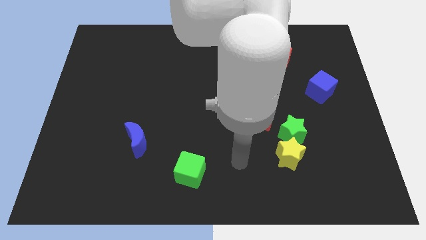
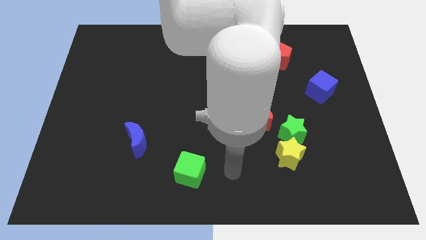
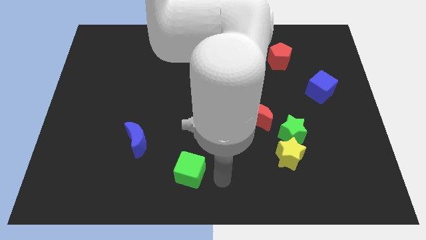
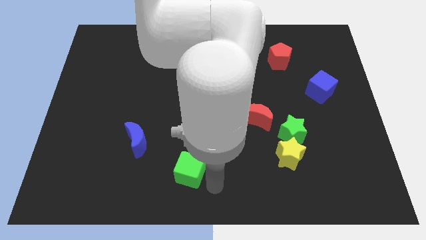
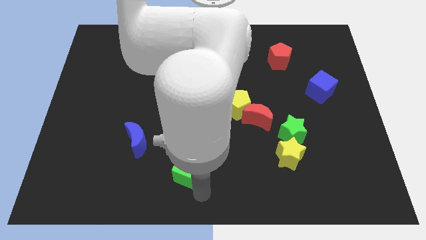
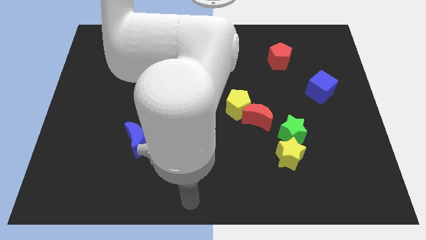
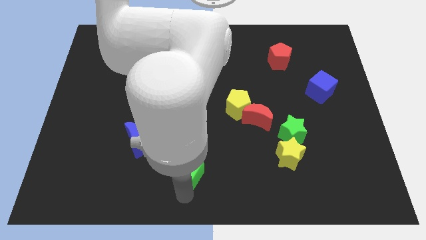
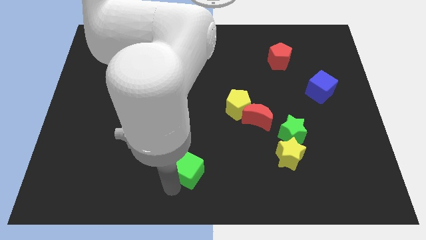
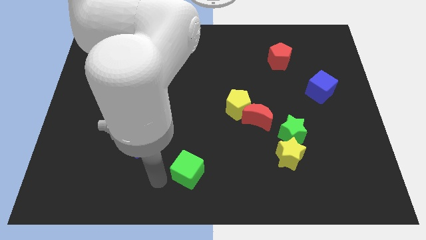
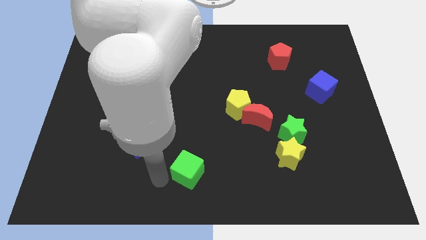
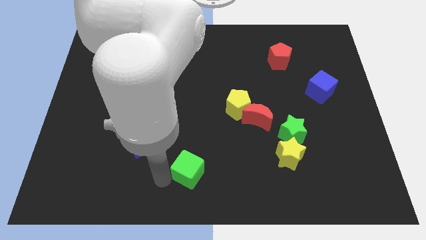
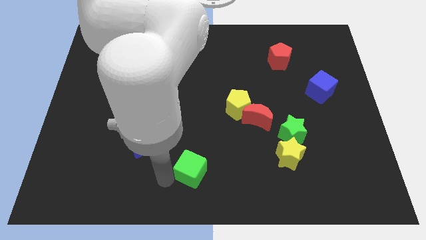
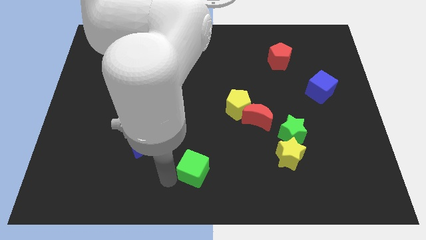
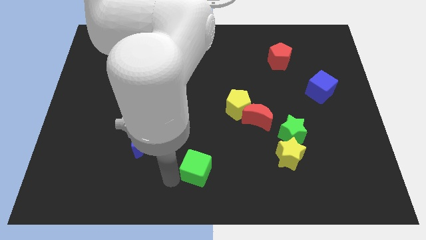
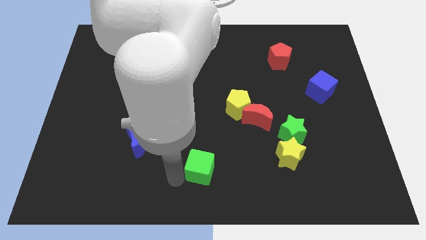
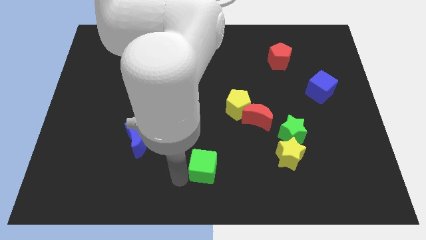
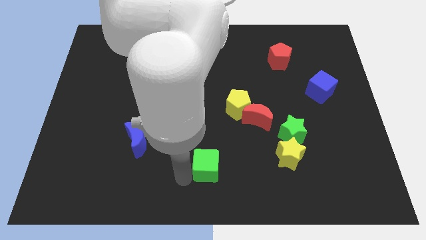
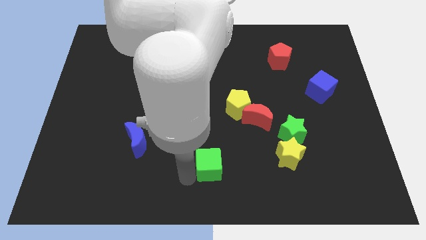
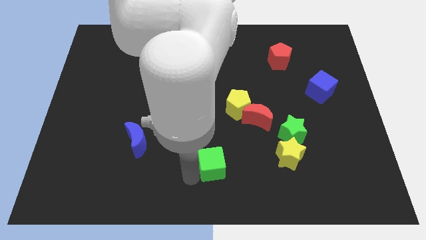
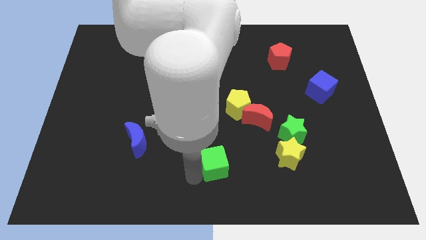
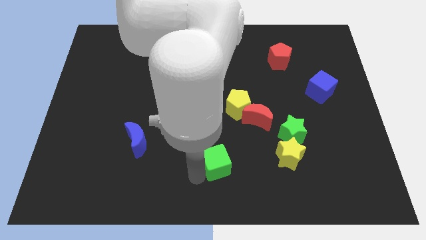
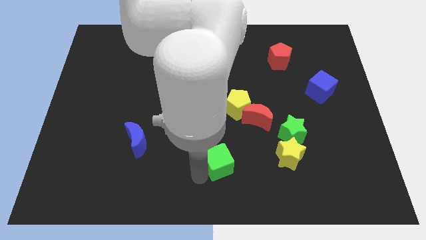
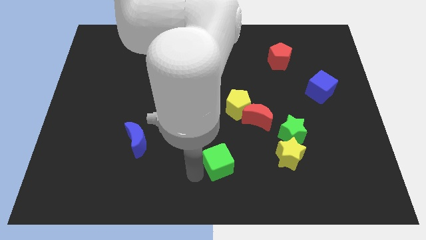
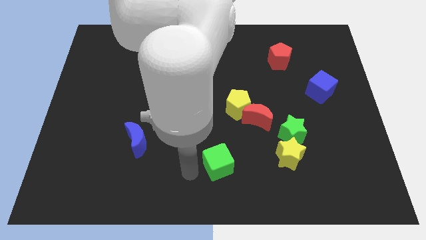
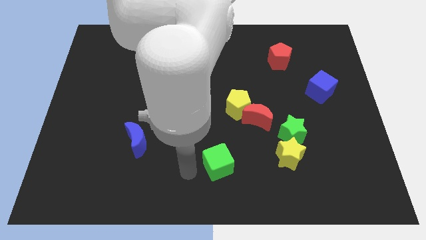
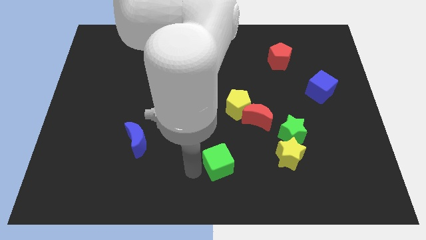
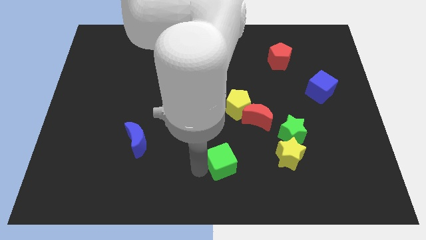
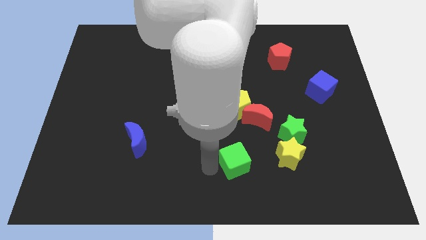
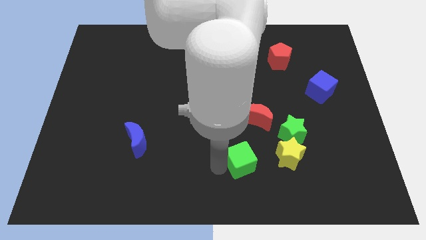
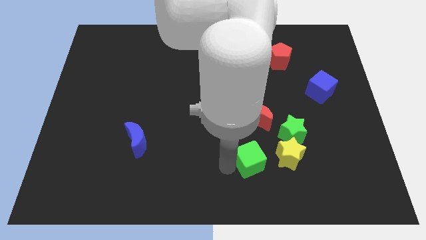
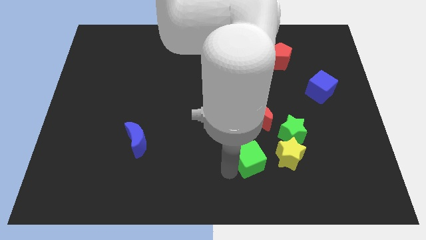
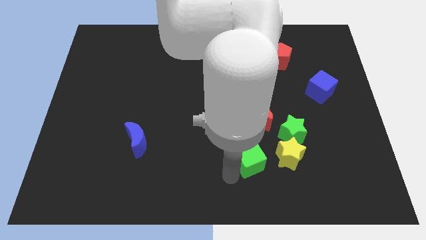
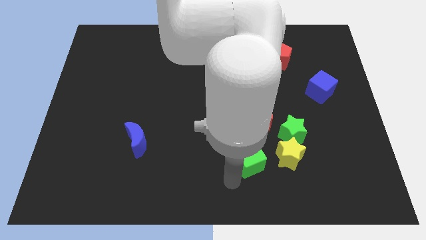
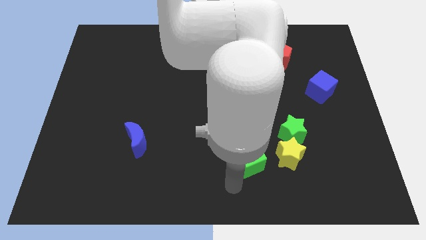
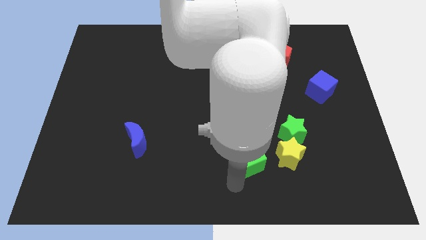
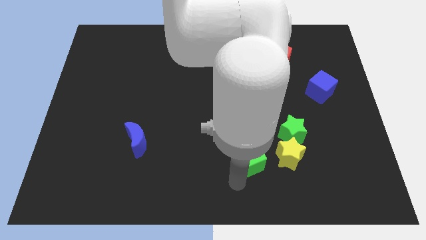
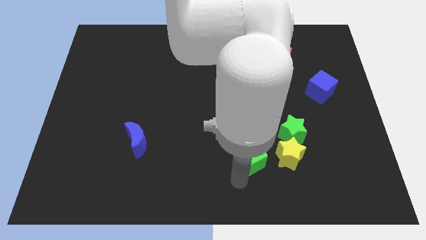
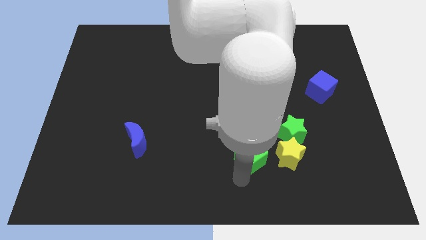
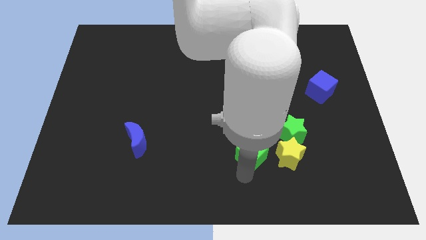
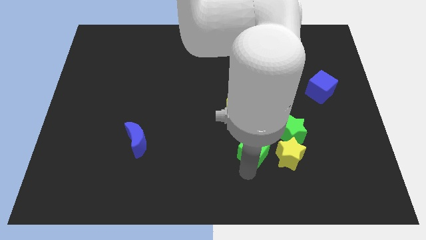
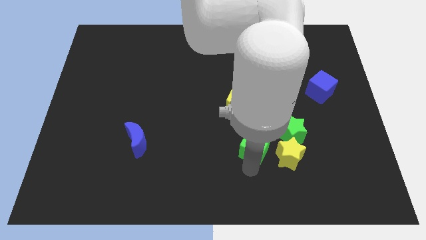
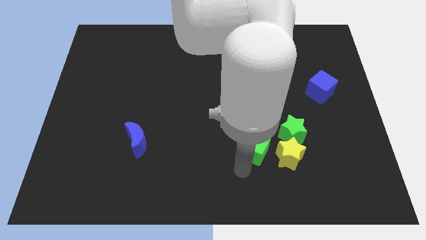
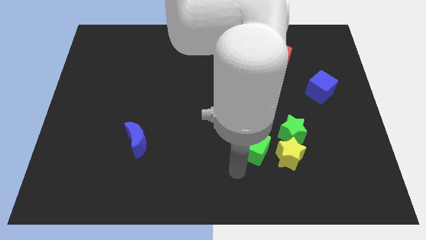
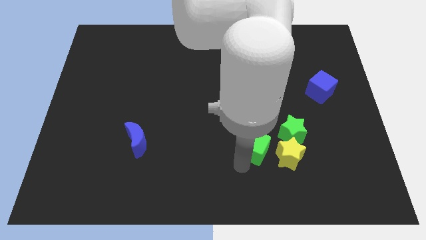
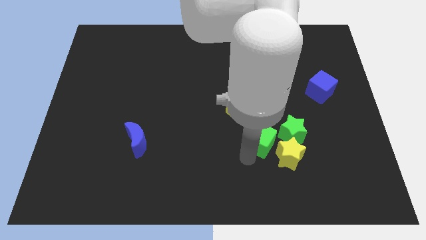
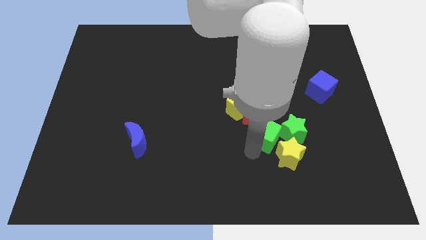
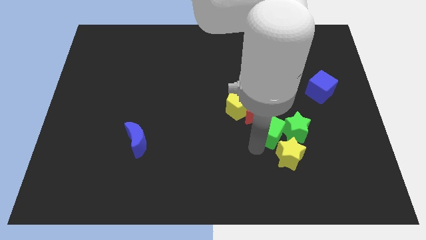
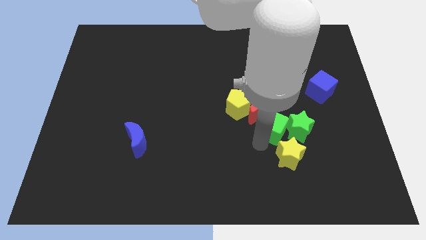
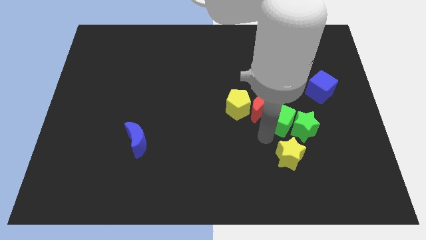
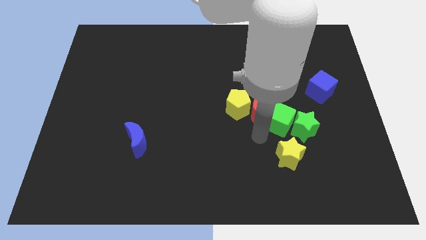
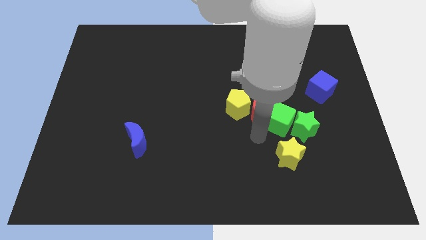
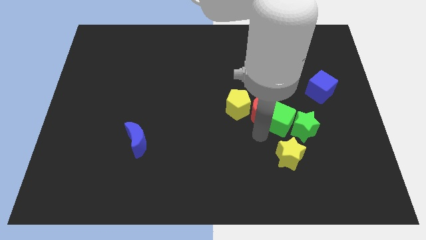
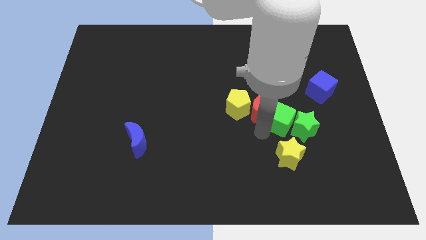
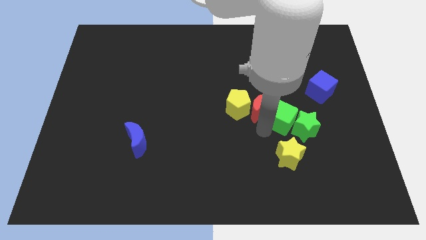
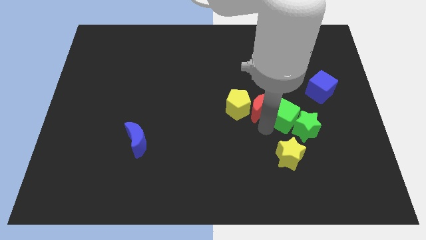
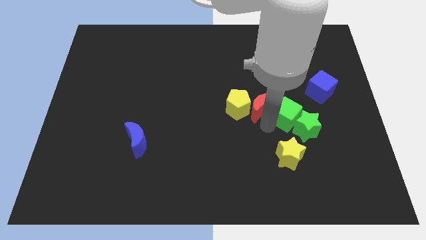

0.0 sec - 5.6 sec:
slide the green cube to the bottom left side of the blue cube

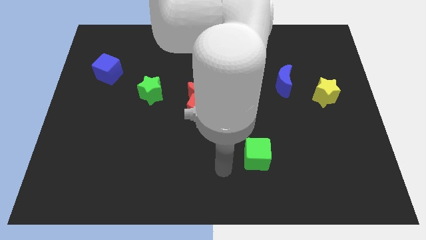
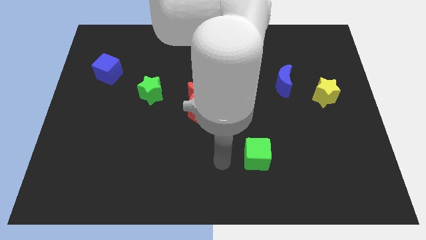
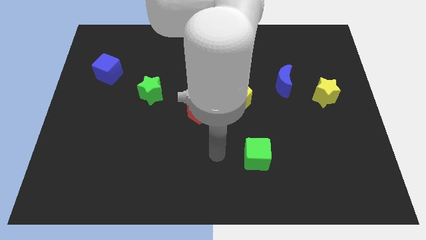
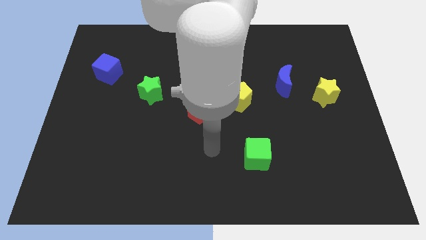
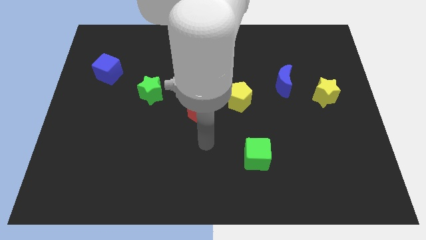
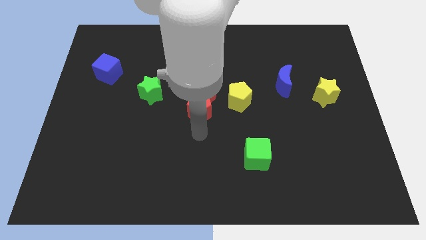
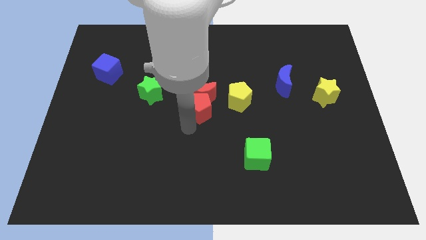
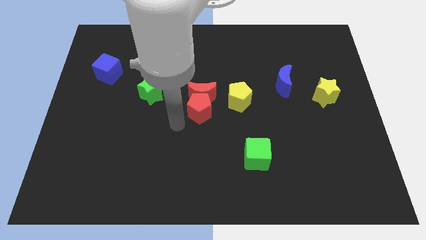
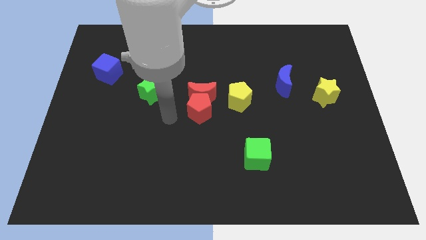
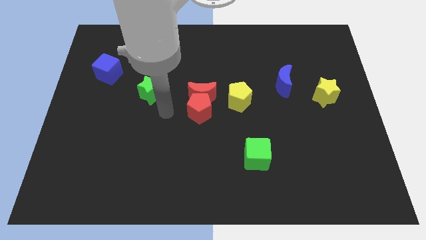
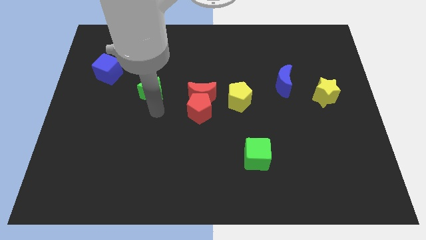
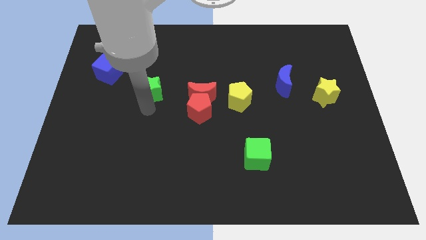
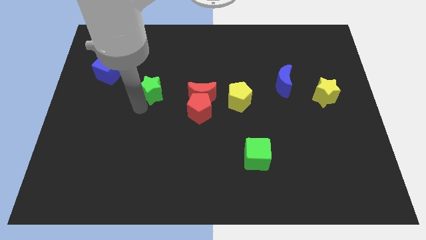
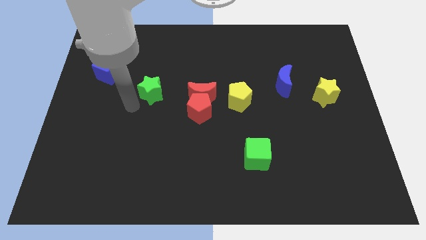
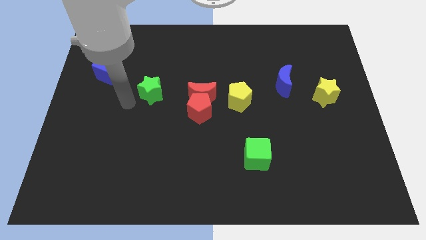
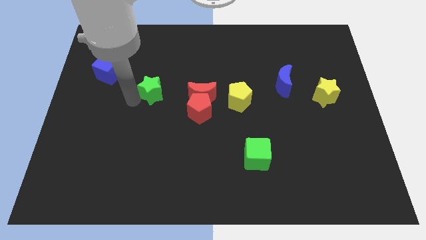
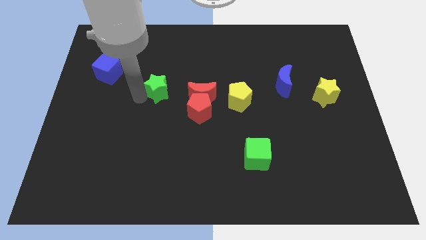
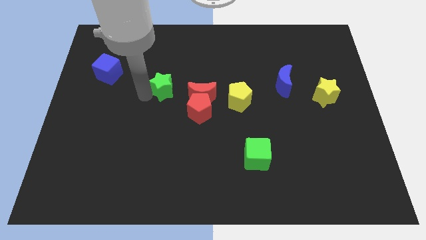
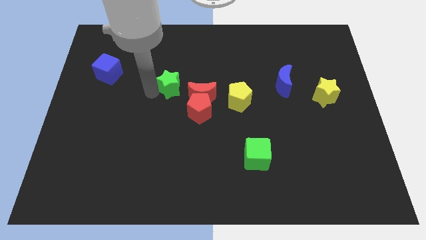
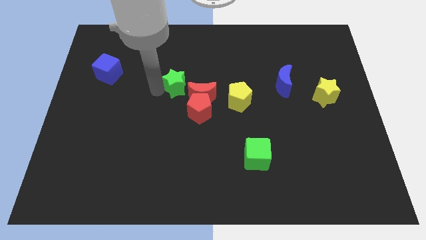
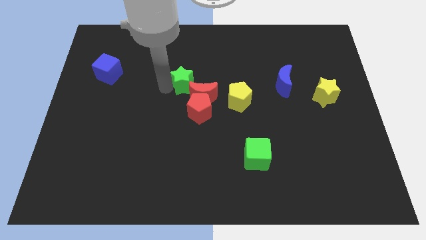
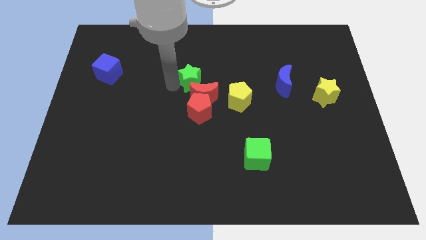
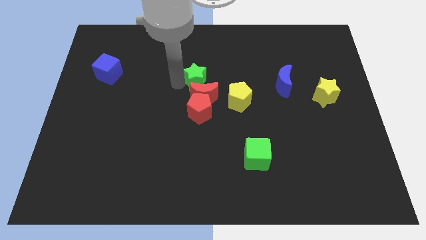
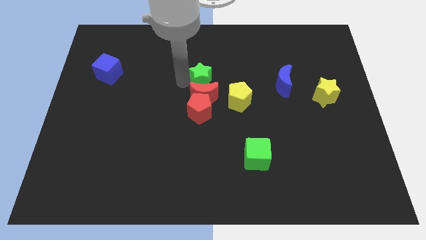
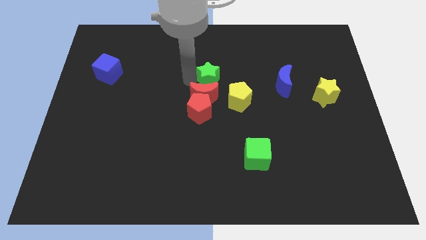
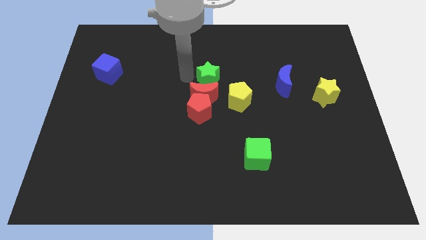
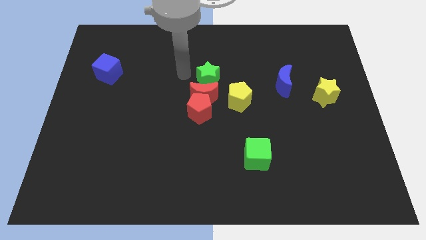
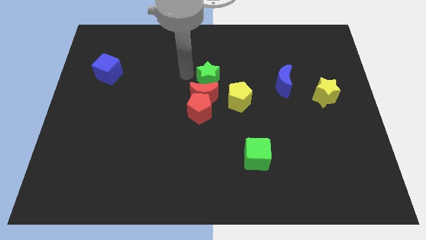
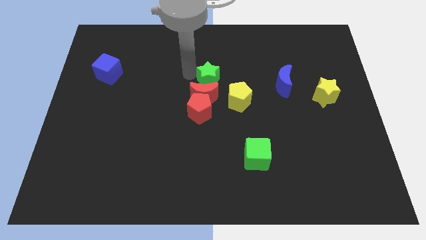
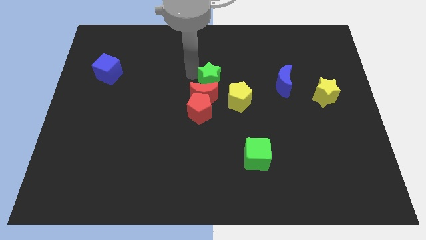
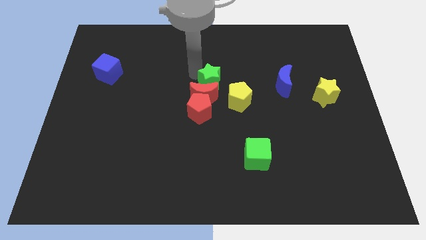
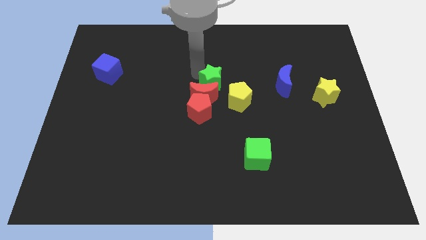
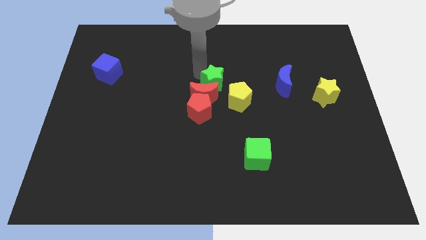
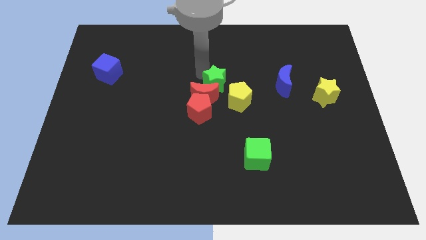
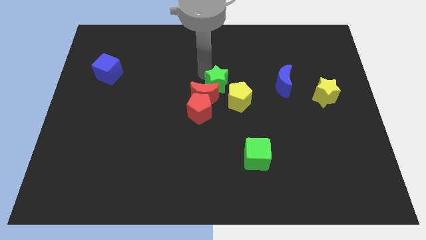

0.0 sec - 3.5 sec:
push the green star to the right side of the red moon
